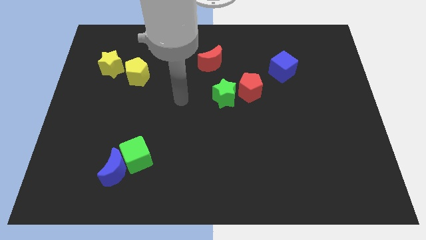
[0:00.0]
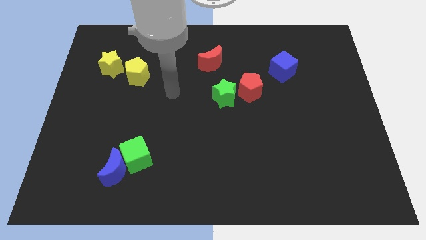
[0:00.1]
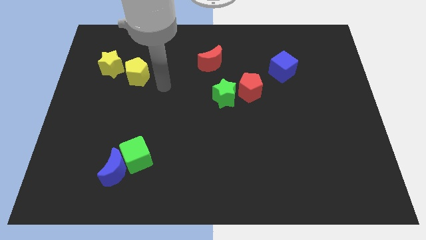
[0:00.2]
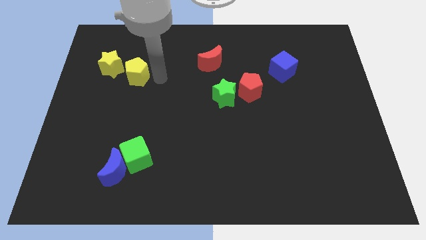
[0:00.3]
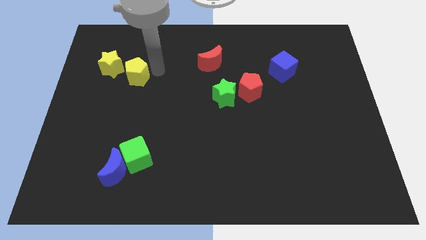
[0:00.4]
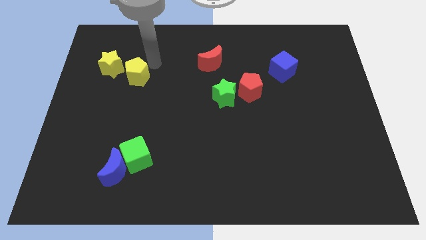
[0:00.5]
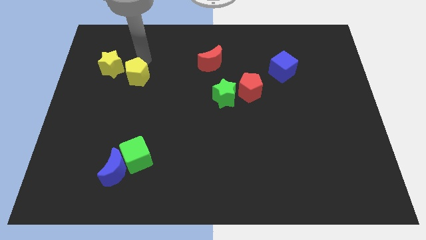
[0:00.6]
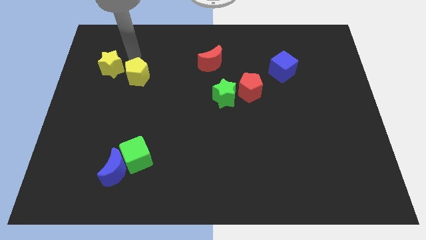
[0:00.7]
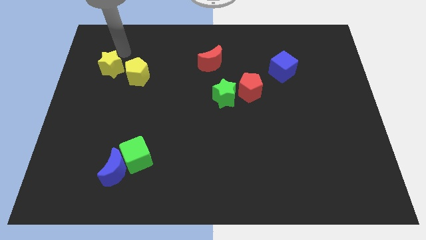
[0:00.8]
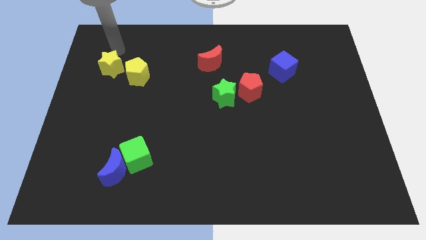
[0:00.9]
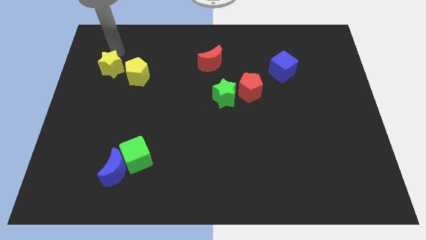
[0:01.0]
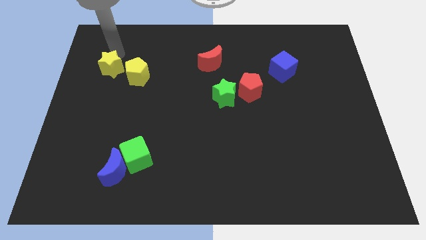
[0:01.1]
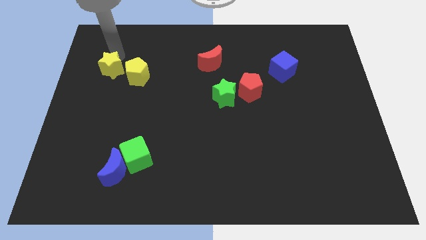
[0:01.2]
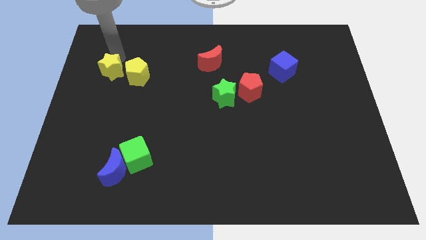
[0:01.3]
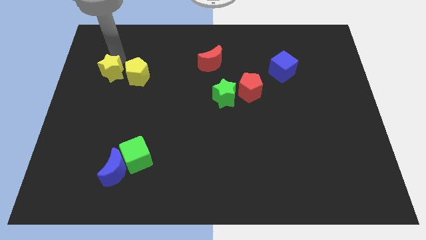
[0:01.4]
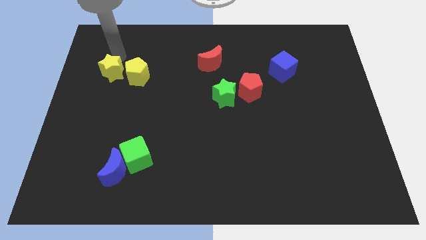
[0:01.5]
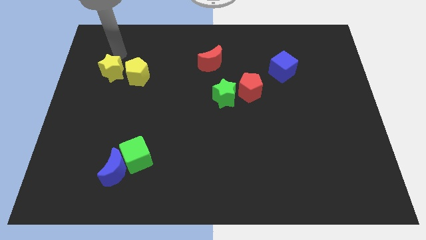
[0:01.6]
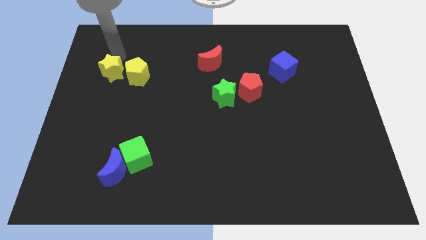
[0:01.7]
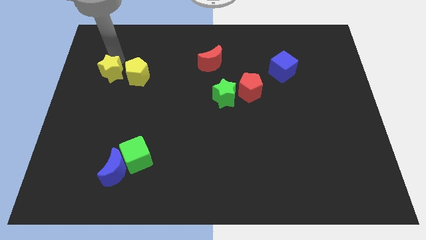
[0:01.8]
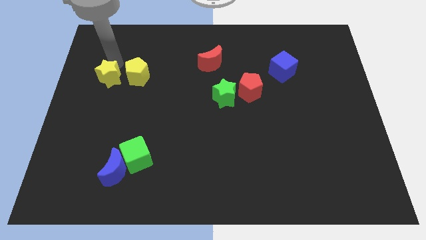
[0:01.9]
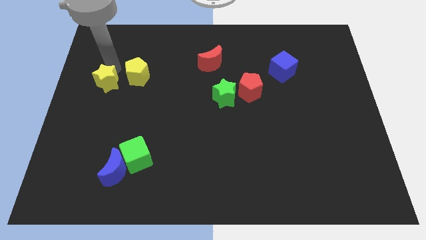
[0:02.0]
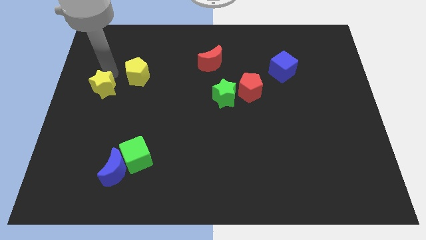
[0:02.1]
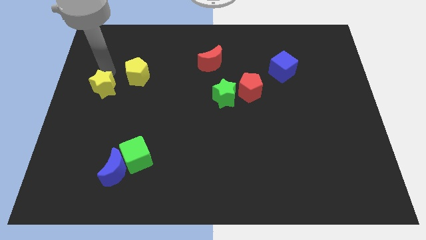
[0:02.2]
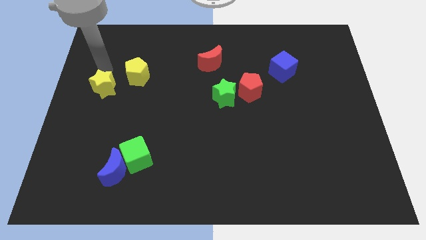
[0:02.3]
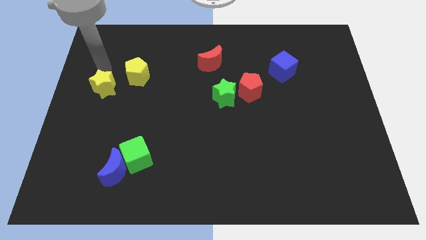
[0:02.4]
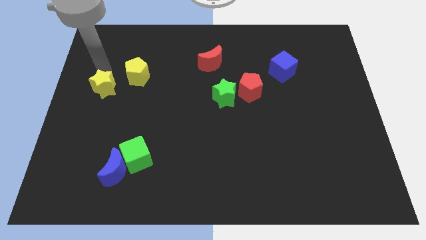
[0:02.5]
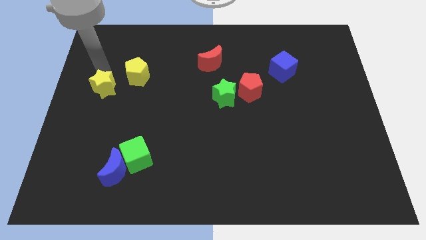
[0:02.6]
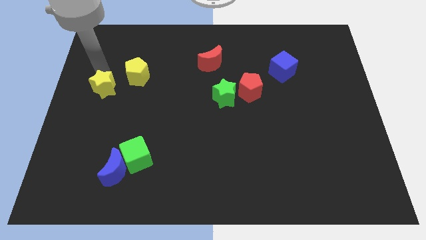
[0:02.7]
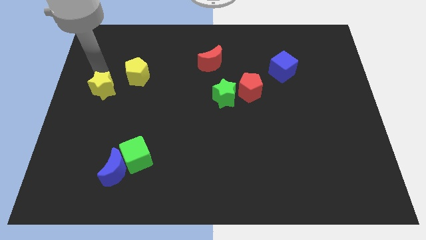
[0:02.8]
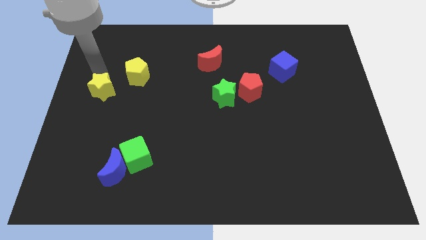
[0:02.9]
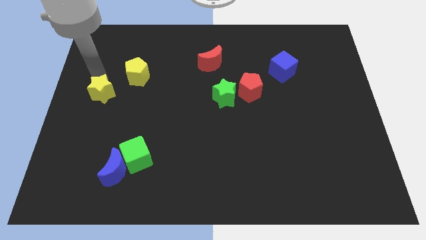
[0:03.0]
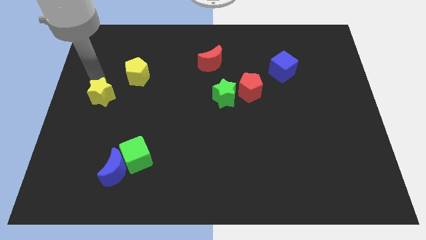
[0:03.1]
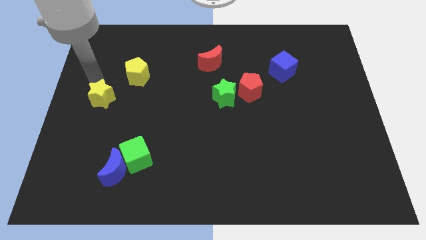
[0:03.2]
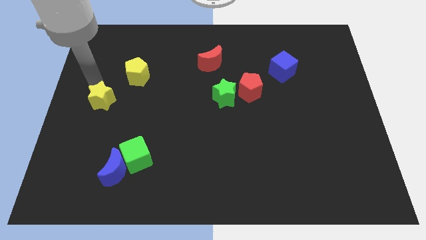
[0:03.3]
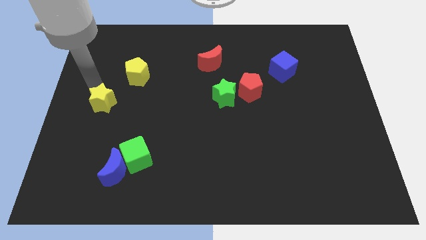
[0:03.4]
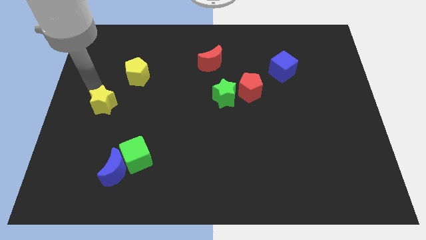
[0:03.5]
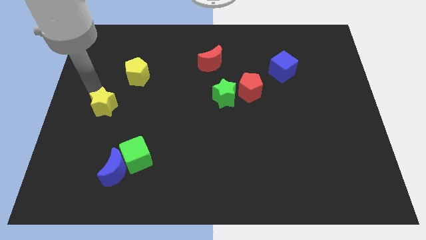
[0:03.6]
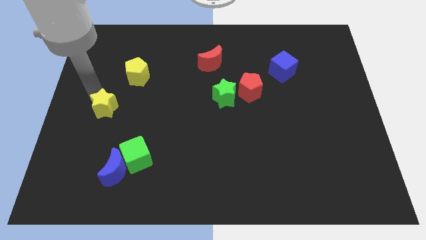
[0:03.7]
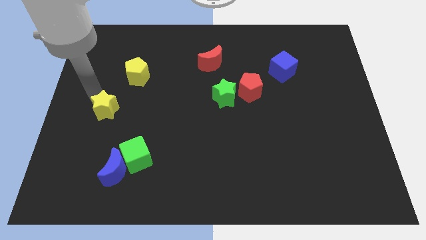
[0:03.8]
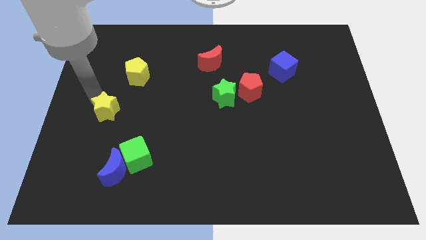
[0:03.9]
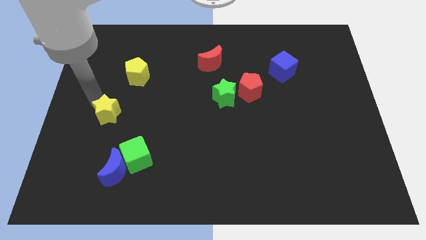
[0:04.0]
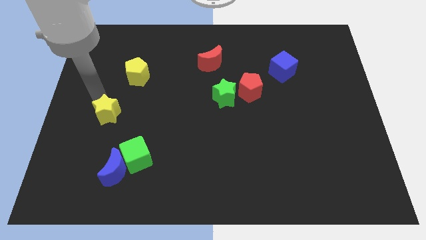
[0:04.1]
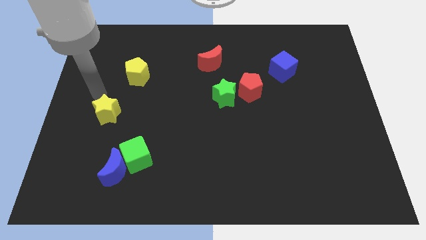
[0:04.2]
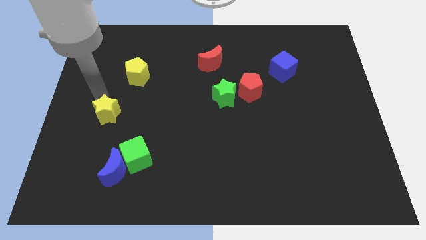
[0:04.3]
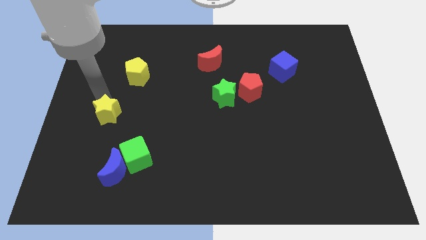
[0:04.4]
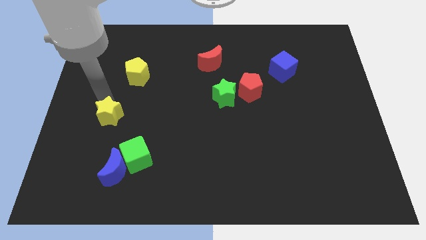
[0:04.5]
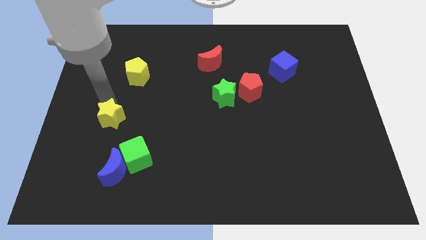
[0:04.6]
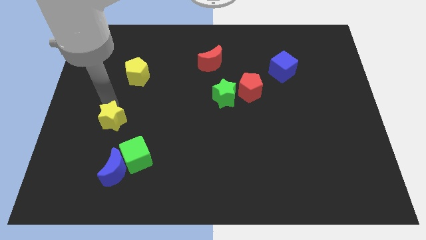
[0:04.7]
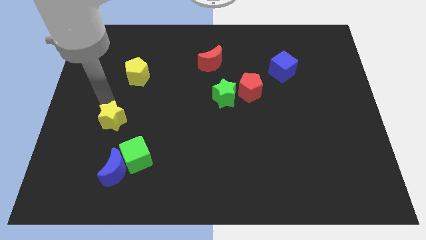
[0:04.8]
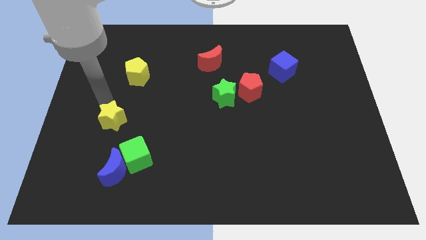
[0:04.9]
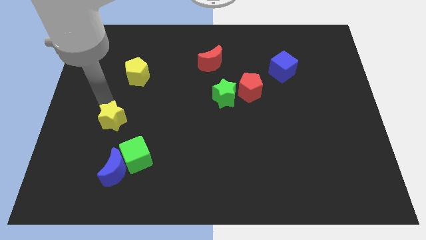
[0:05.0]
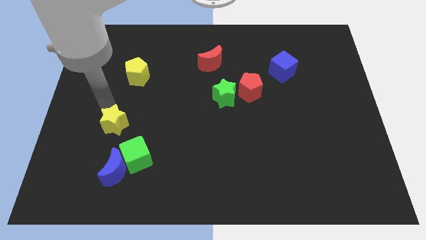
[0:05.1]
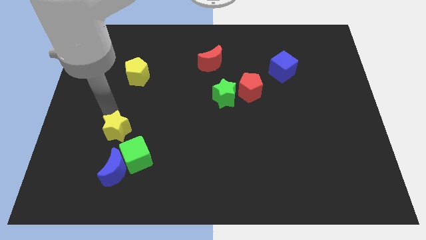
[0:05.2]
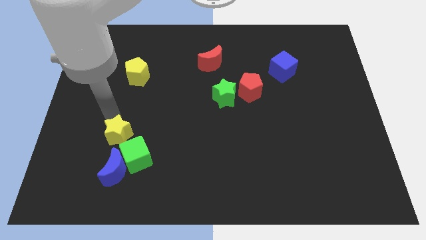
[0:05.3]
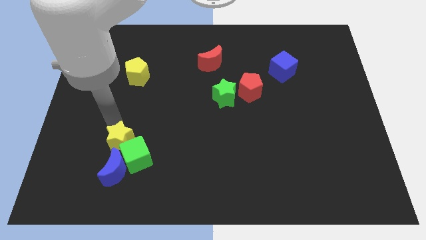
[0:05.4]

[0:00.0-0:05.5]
move the yellow star next to the green cube

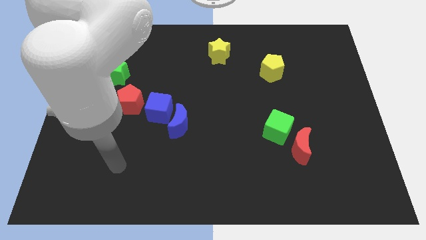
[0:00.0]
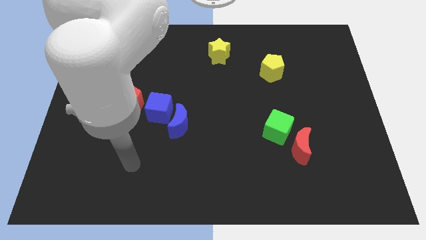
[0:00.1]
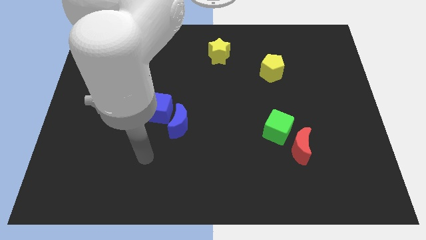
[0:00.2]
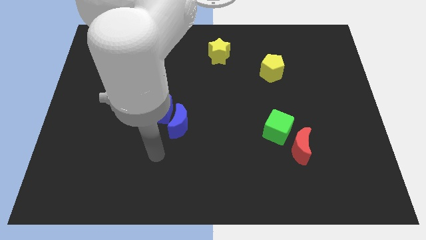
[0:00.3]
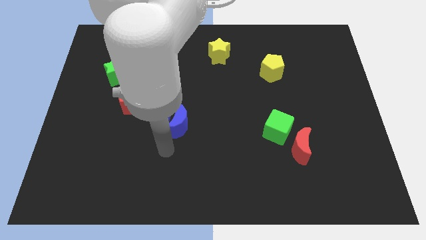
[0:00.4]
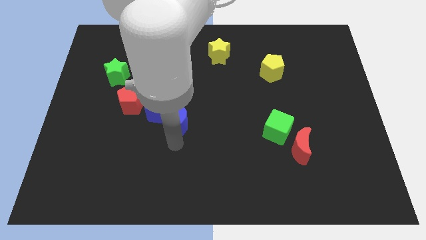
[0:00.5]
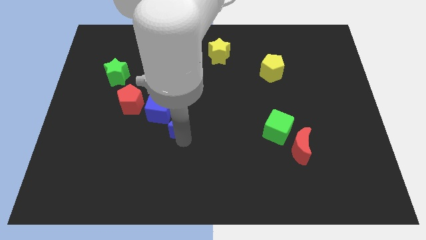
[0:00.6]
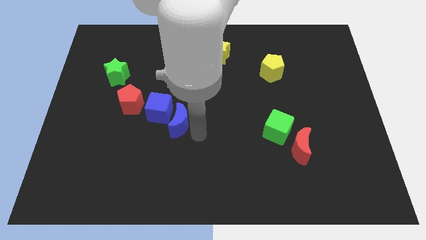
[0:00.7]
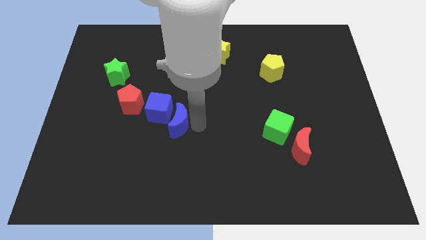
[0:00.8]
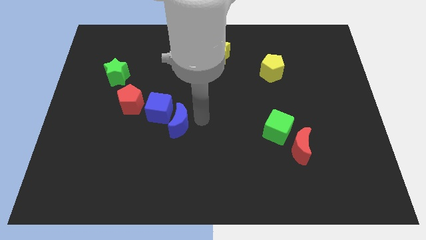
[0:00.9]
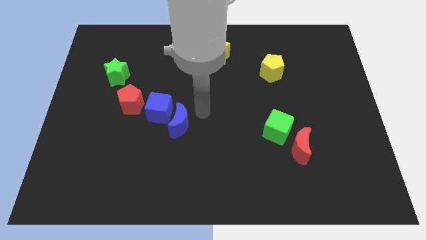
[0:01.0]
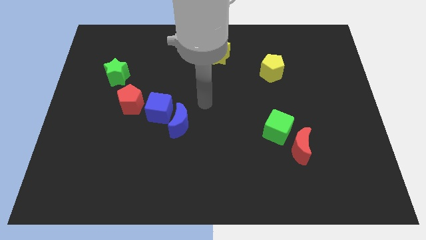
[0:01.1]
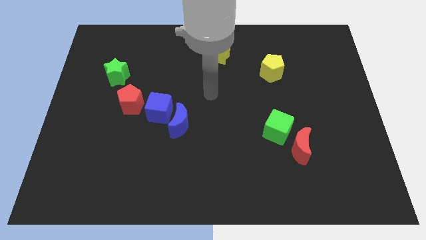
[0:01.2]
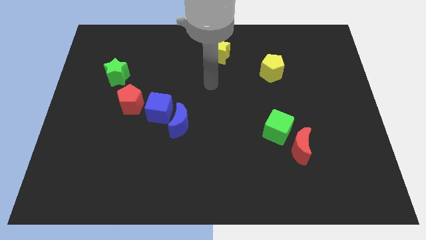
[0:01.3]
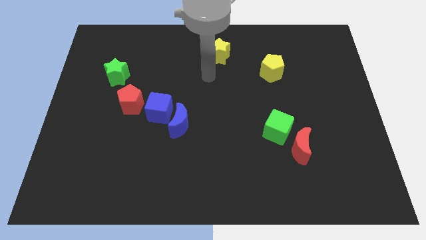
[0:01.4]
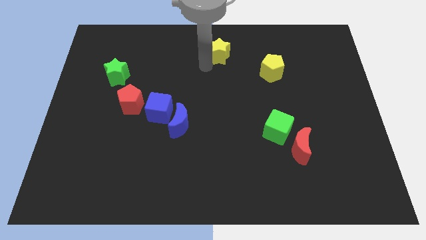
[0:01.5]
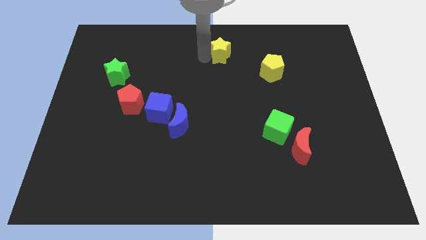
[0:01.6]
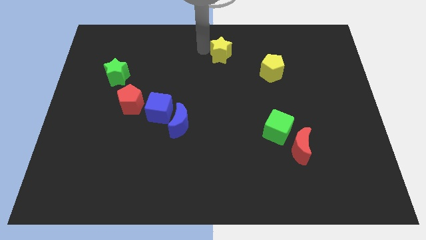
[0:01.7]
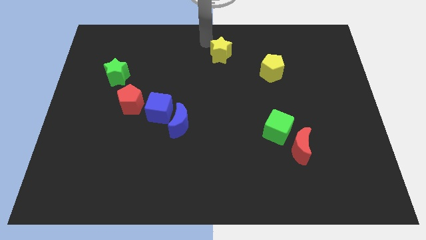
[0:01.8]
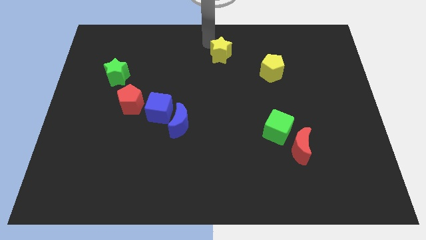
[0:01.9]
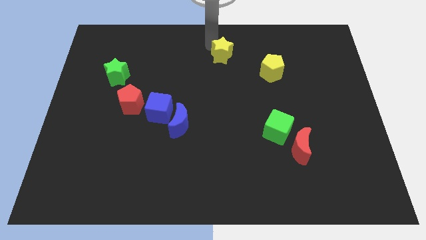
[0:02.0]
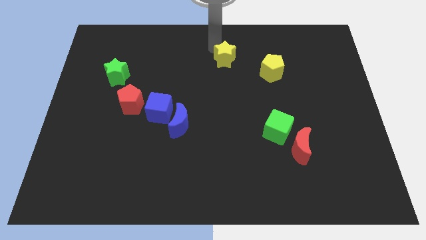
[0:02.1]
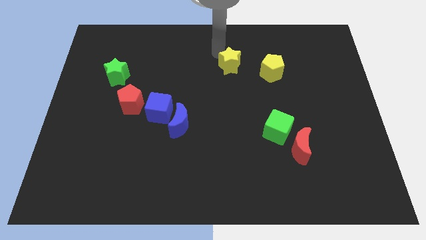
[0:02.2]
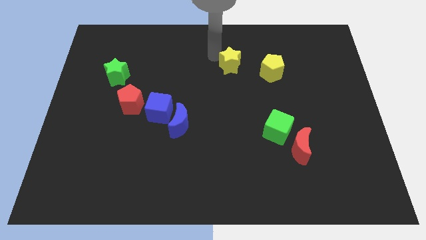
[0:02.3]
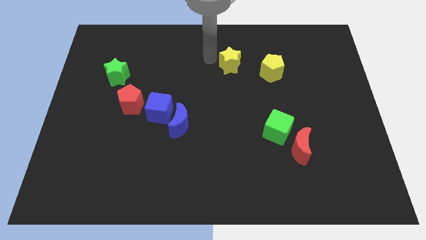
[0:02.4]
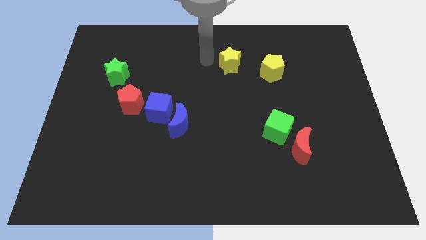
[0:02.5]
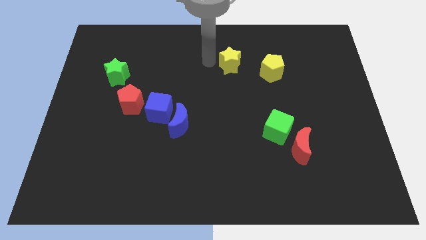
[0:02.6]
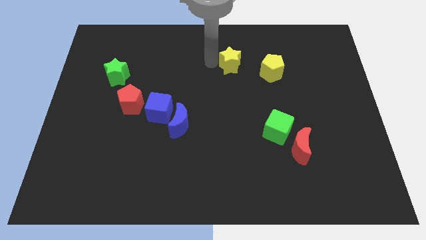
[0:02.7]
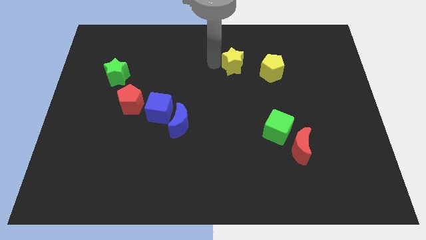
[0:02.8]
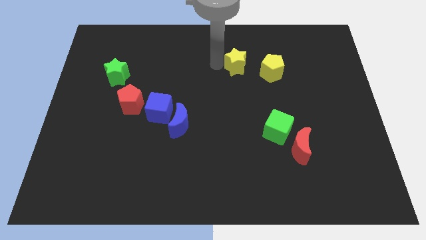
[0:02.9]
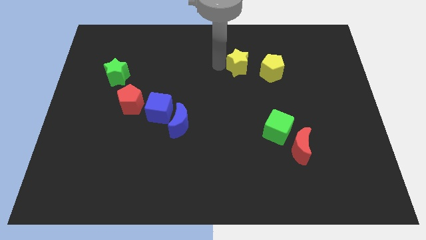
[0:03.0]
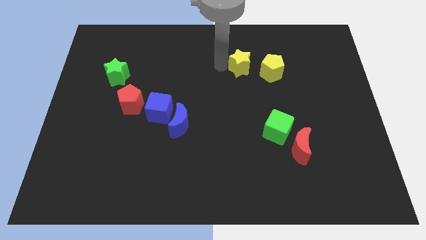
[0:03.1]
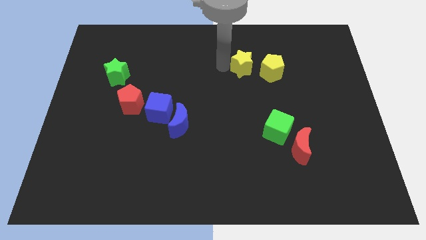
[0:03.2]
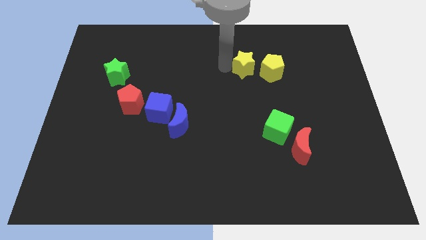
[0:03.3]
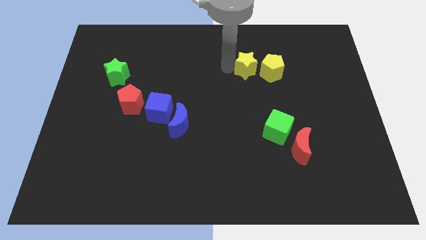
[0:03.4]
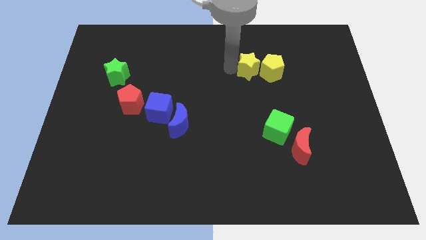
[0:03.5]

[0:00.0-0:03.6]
slide the yellow star to the yellow pentagon
